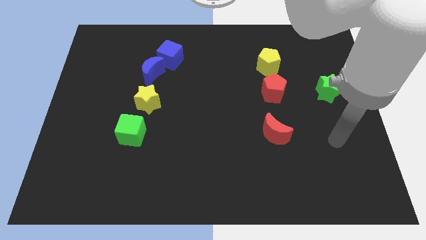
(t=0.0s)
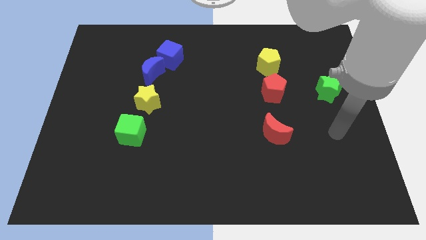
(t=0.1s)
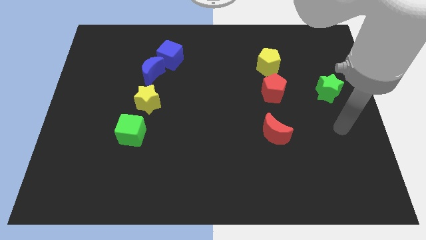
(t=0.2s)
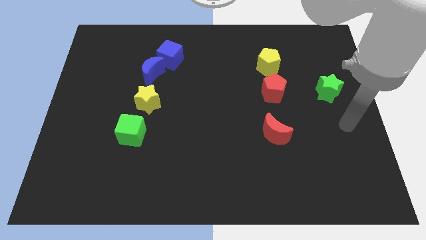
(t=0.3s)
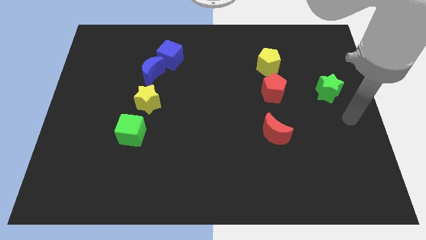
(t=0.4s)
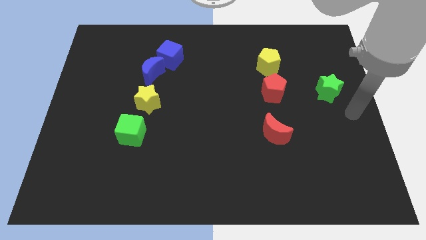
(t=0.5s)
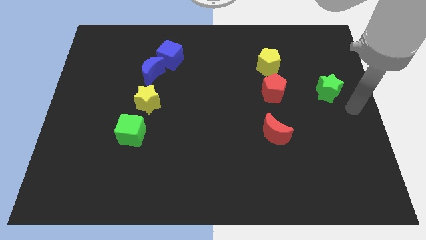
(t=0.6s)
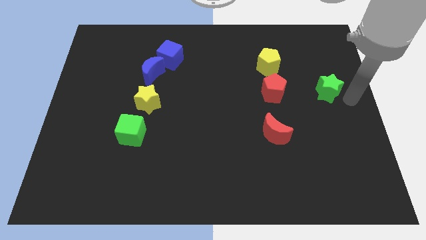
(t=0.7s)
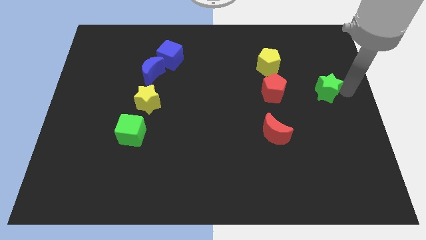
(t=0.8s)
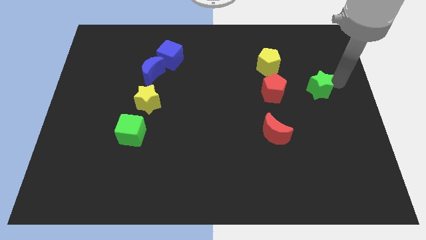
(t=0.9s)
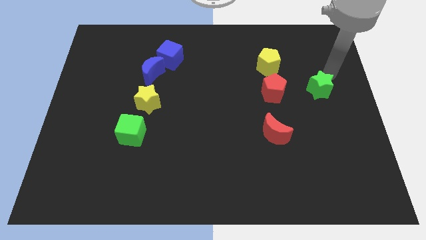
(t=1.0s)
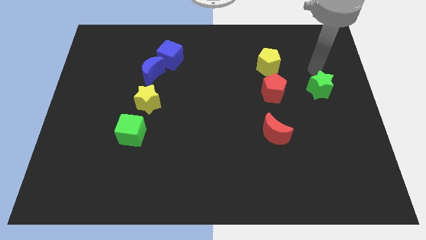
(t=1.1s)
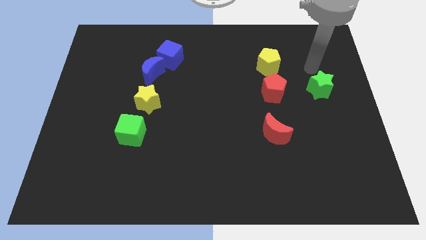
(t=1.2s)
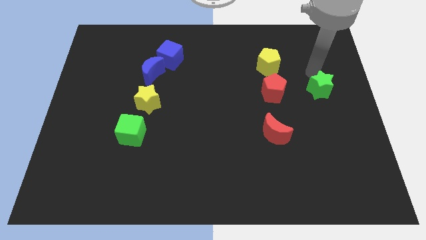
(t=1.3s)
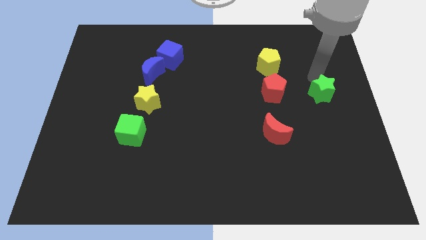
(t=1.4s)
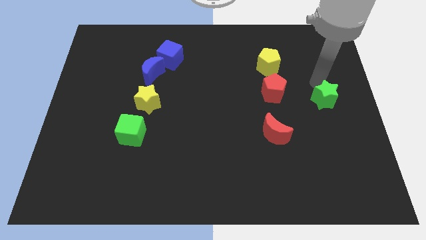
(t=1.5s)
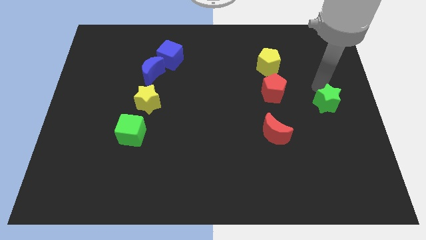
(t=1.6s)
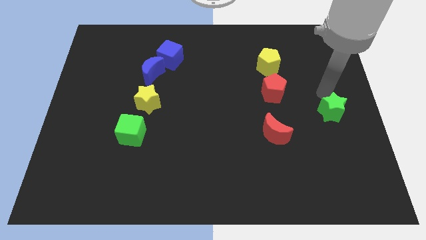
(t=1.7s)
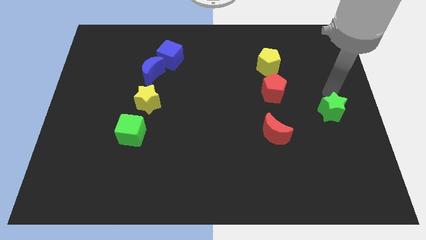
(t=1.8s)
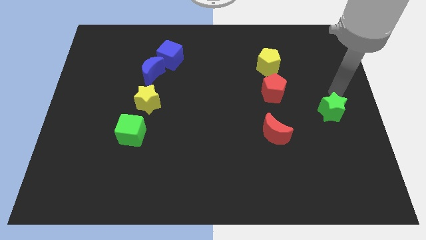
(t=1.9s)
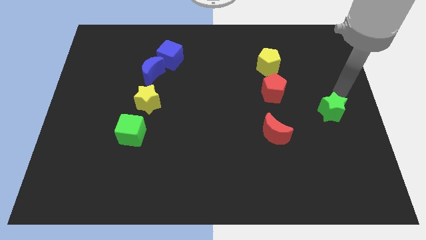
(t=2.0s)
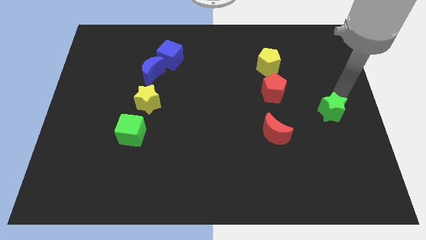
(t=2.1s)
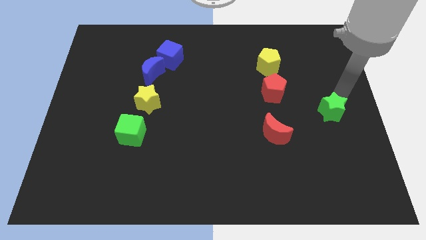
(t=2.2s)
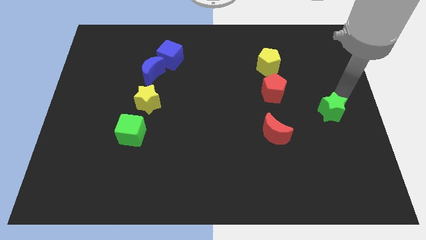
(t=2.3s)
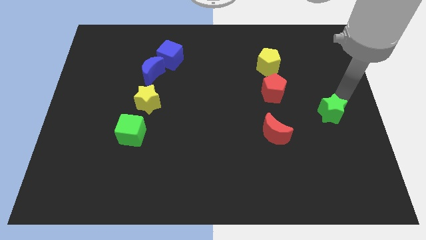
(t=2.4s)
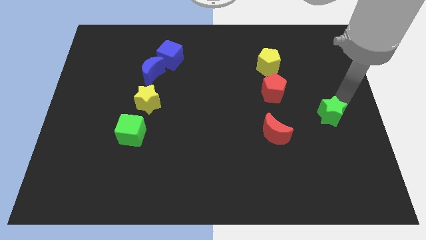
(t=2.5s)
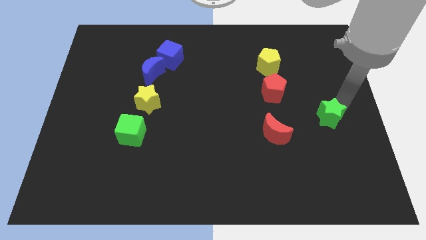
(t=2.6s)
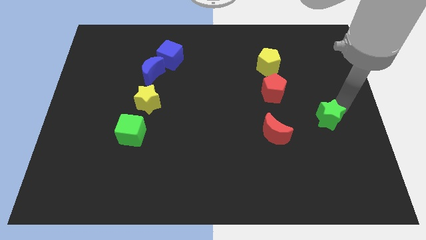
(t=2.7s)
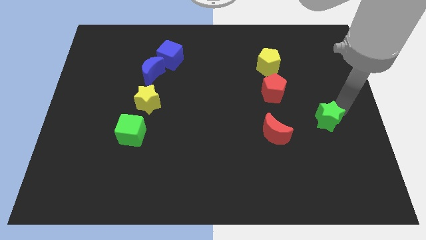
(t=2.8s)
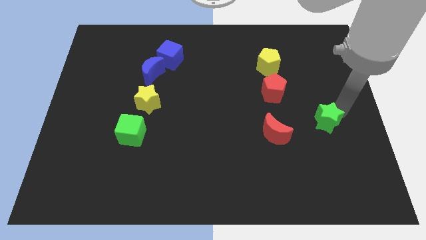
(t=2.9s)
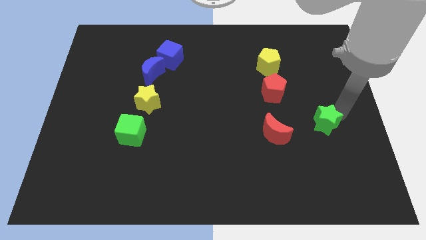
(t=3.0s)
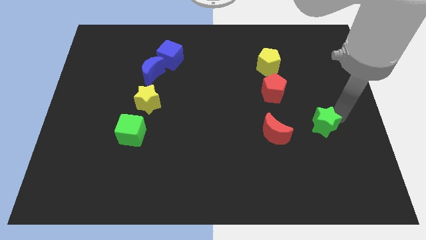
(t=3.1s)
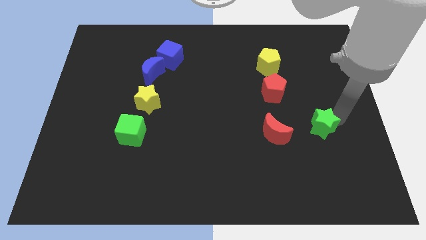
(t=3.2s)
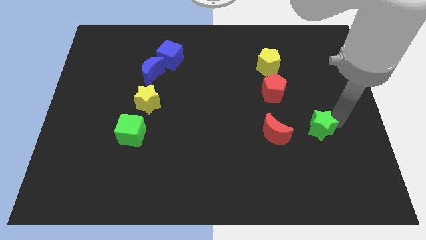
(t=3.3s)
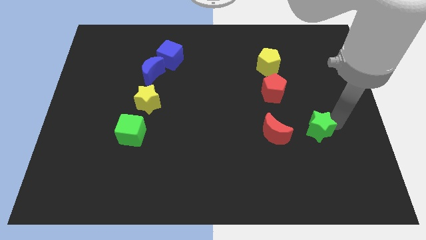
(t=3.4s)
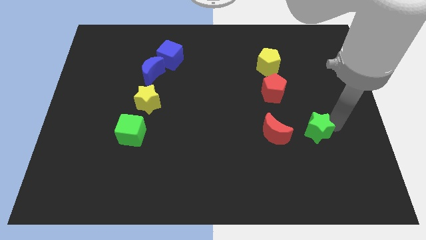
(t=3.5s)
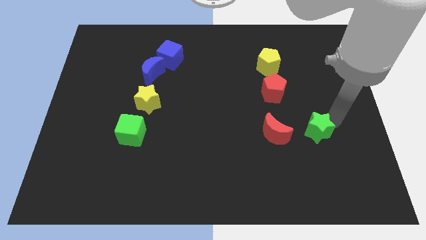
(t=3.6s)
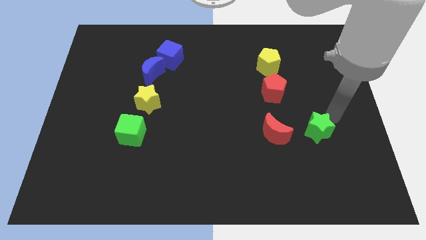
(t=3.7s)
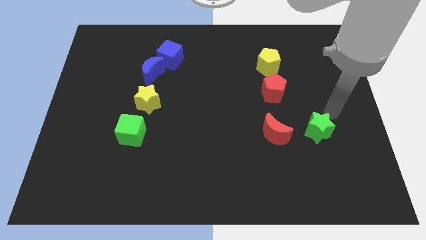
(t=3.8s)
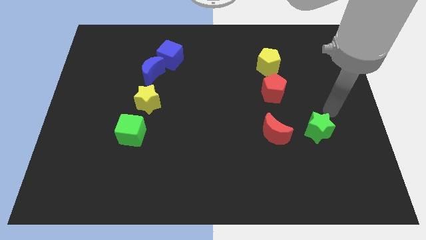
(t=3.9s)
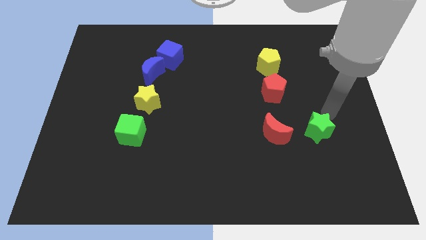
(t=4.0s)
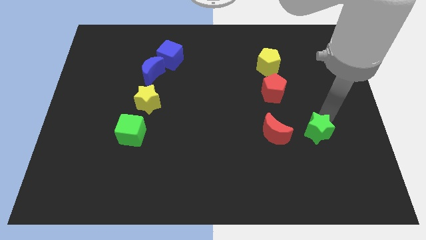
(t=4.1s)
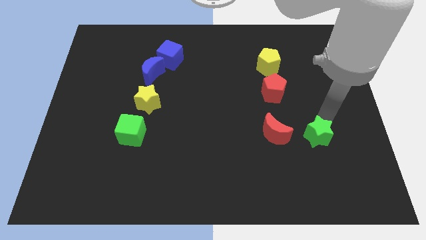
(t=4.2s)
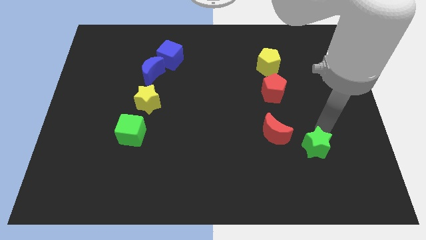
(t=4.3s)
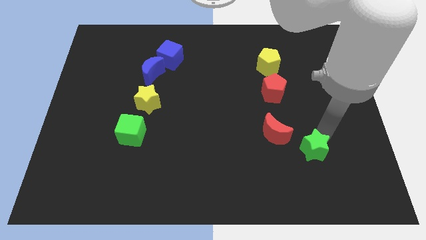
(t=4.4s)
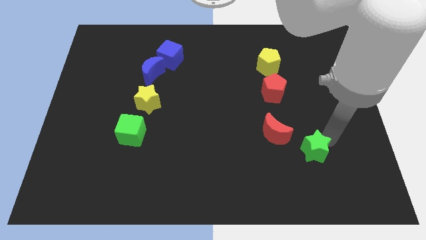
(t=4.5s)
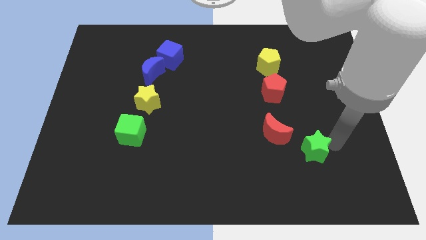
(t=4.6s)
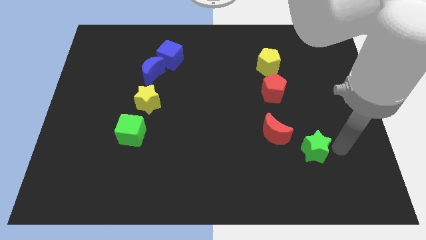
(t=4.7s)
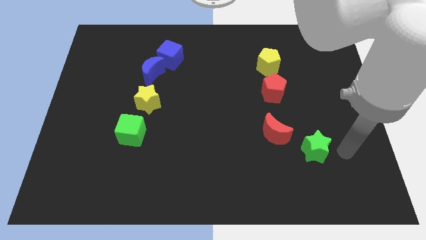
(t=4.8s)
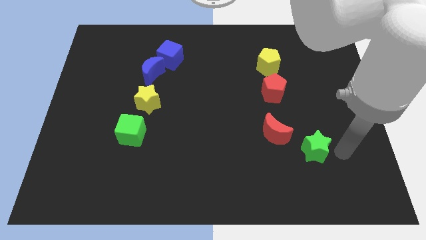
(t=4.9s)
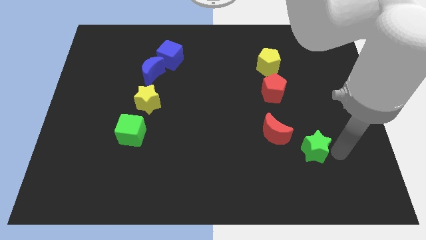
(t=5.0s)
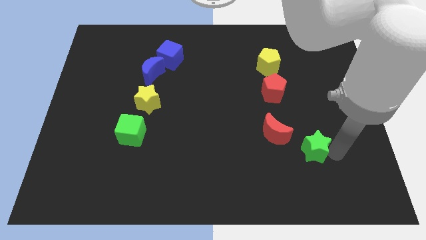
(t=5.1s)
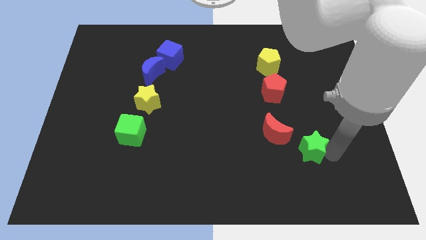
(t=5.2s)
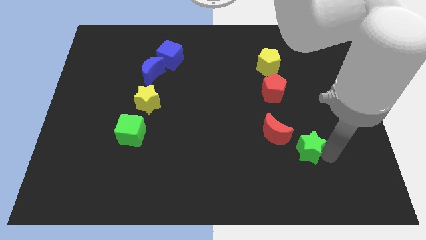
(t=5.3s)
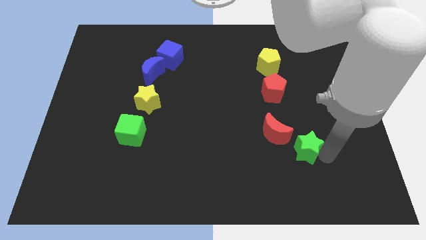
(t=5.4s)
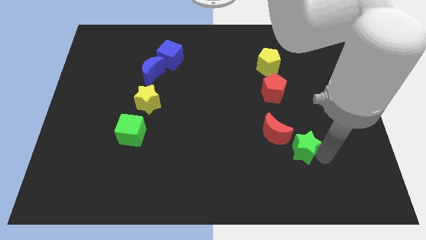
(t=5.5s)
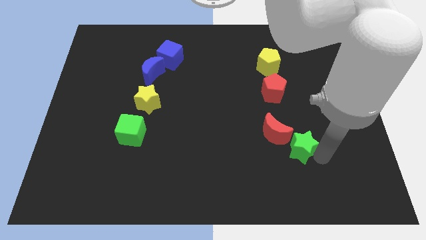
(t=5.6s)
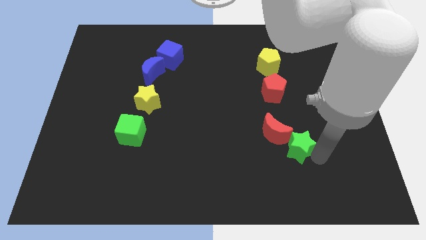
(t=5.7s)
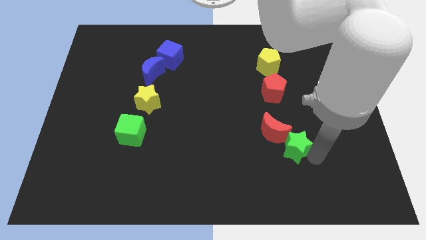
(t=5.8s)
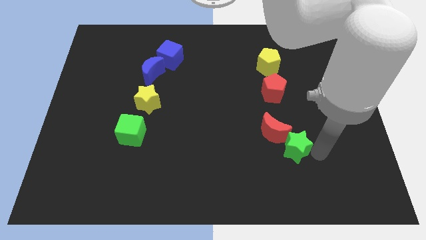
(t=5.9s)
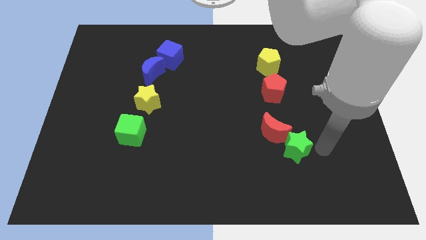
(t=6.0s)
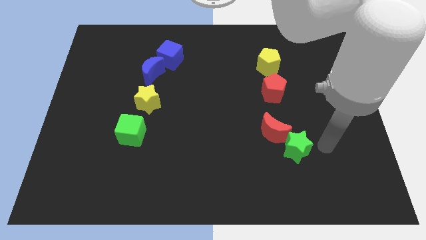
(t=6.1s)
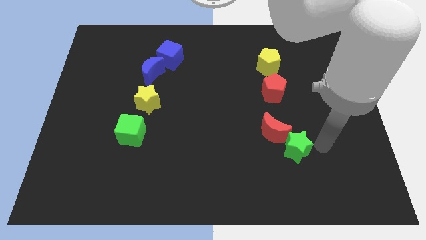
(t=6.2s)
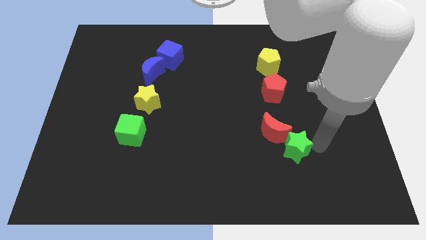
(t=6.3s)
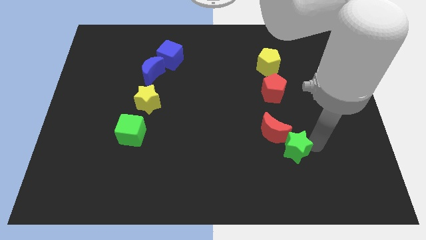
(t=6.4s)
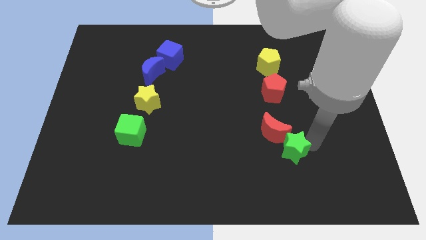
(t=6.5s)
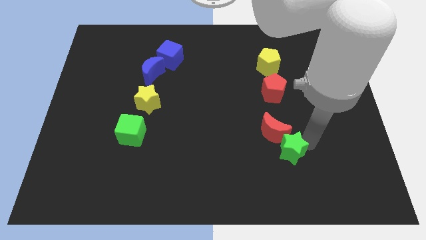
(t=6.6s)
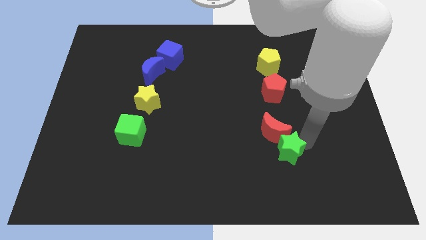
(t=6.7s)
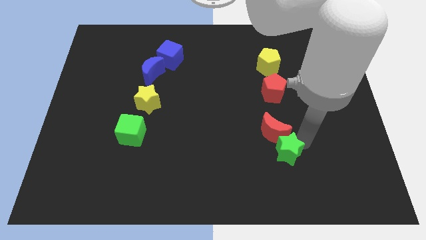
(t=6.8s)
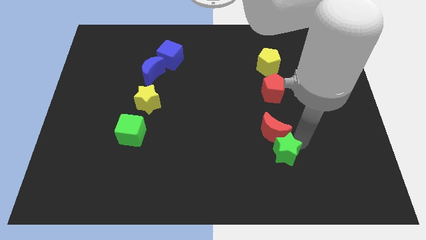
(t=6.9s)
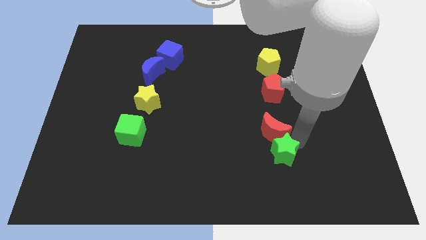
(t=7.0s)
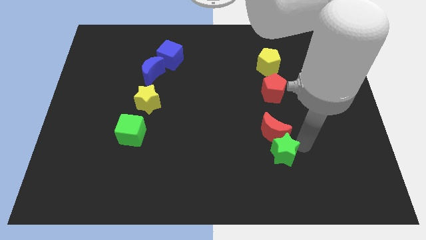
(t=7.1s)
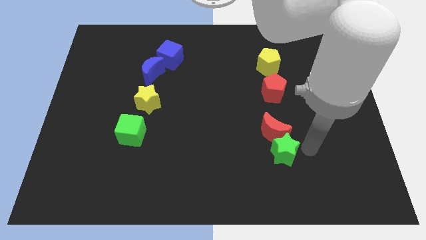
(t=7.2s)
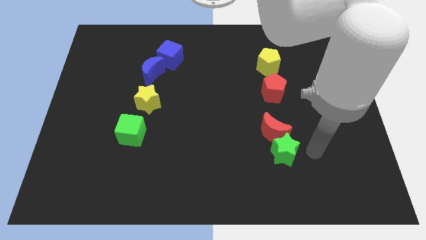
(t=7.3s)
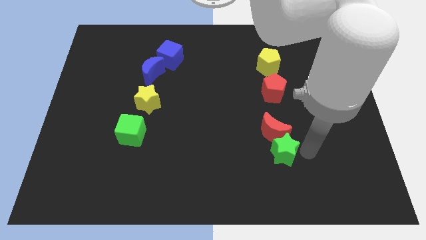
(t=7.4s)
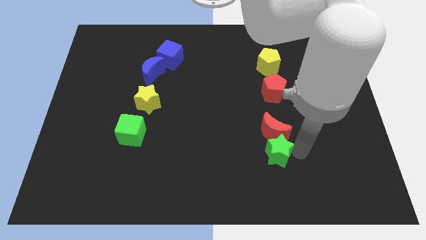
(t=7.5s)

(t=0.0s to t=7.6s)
slide the green star to the bottom left of the red moon
